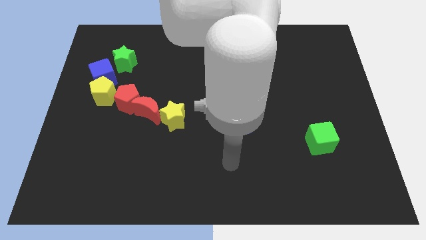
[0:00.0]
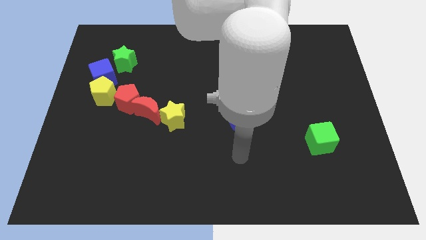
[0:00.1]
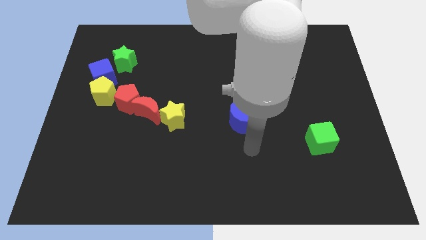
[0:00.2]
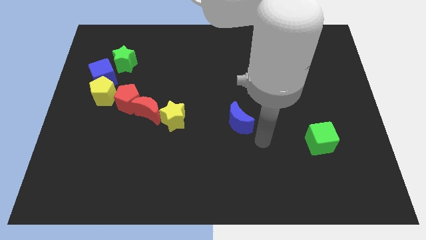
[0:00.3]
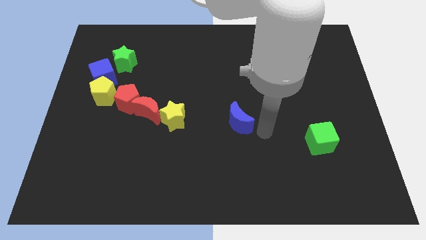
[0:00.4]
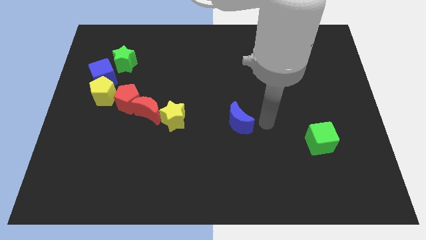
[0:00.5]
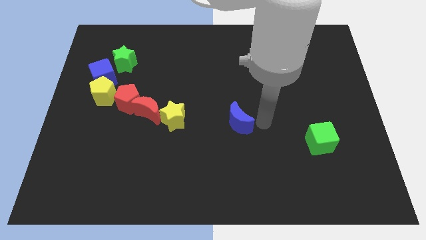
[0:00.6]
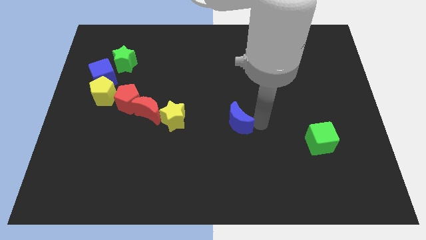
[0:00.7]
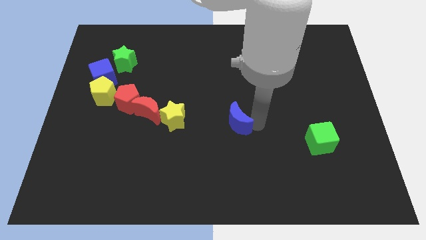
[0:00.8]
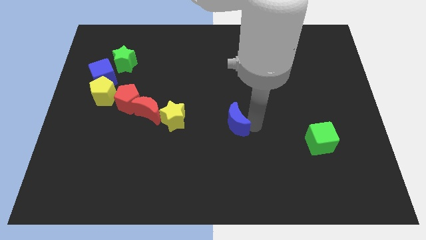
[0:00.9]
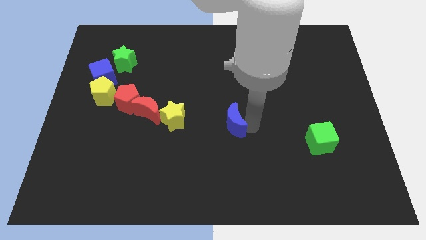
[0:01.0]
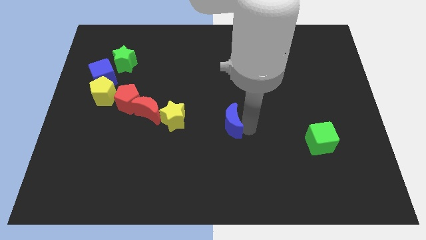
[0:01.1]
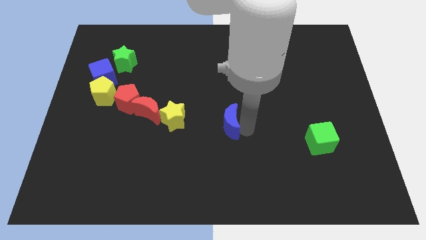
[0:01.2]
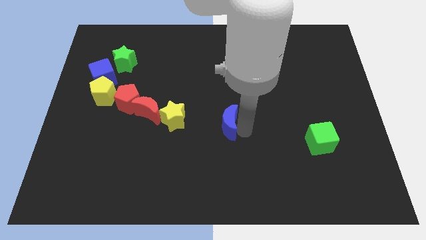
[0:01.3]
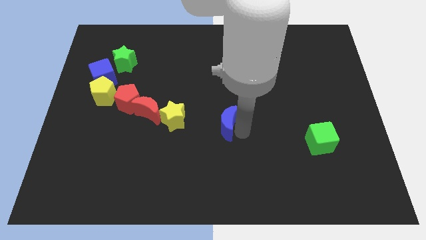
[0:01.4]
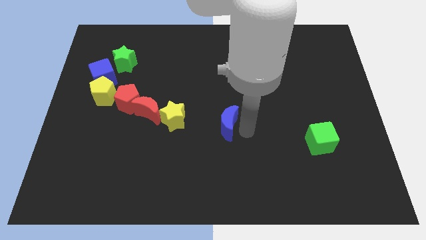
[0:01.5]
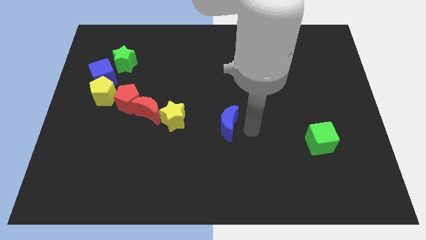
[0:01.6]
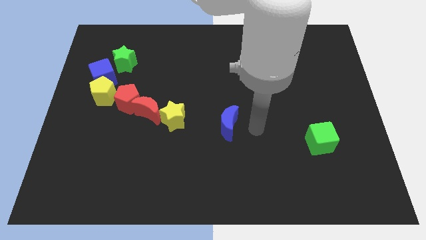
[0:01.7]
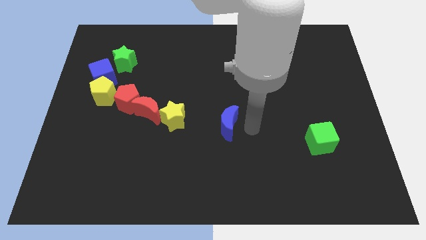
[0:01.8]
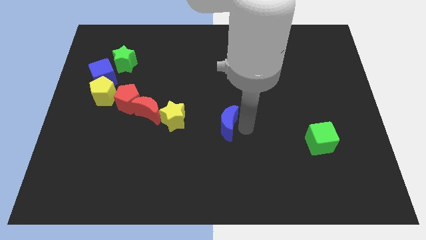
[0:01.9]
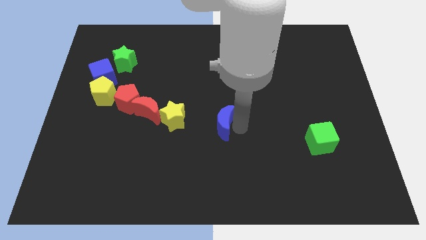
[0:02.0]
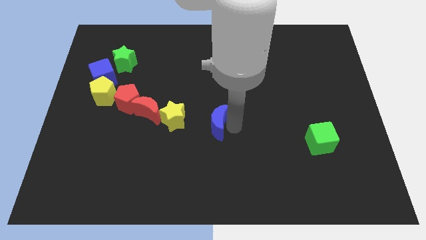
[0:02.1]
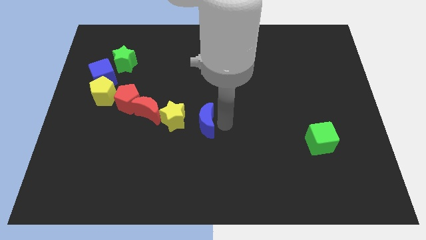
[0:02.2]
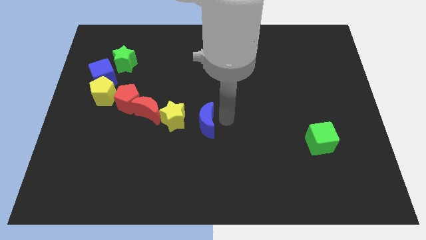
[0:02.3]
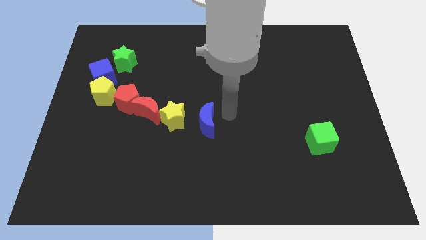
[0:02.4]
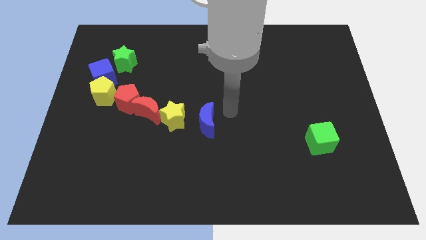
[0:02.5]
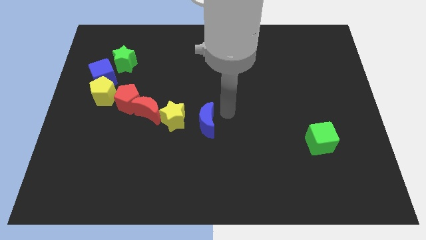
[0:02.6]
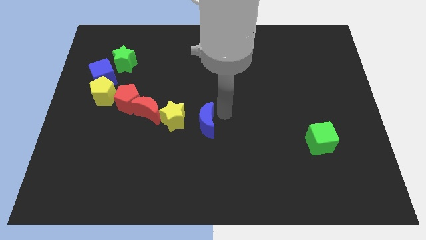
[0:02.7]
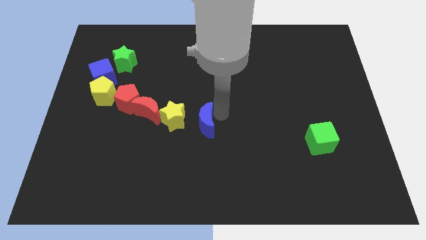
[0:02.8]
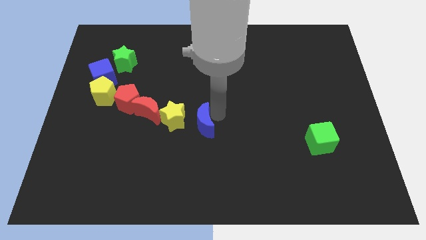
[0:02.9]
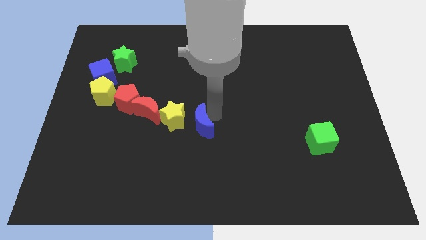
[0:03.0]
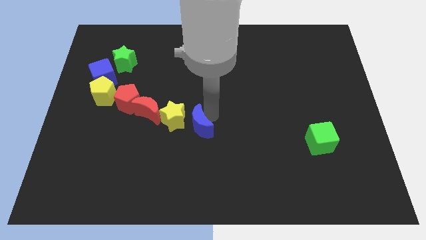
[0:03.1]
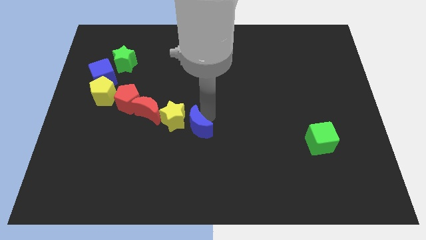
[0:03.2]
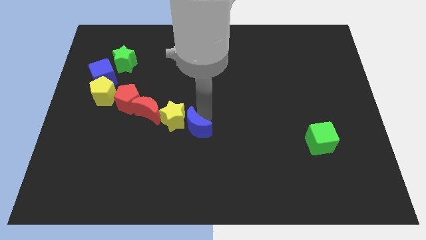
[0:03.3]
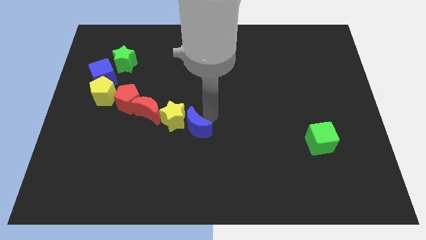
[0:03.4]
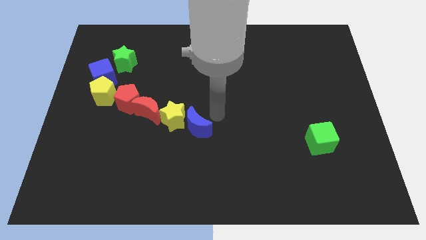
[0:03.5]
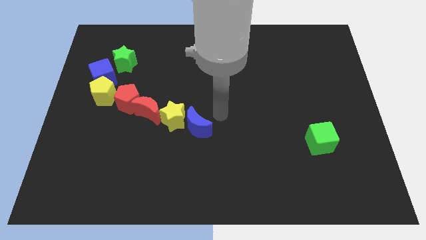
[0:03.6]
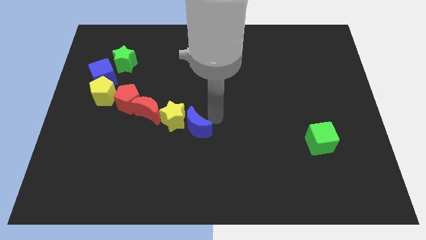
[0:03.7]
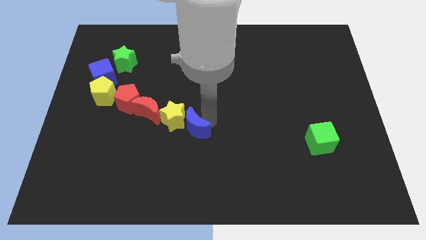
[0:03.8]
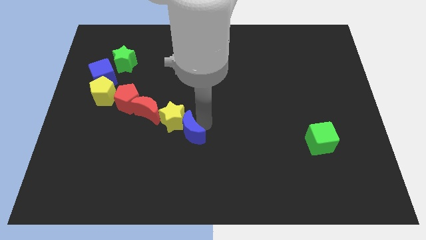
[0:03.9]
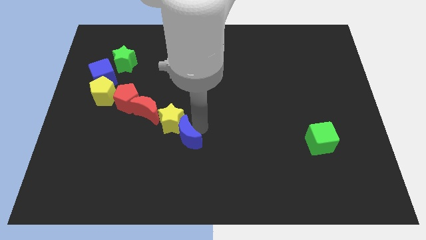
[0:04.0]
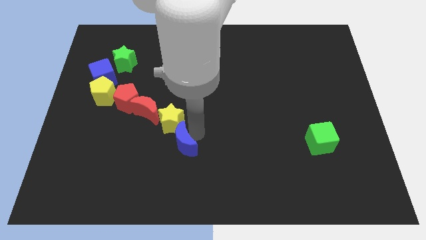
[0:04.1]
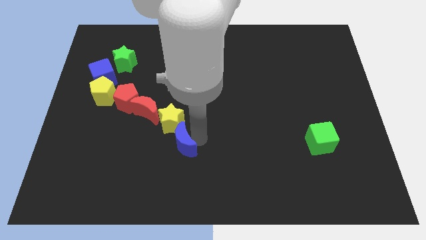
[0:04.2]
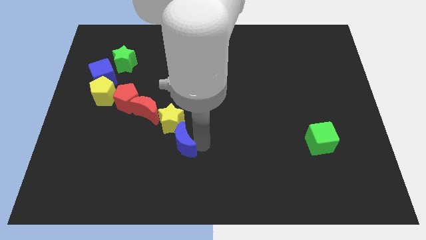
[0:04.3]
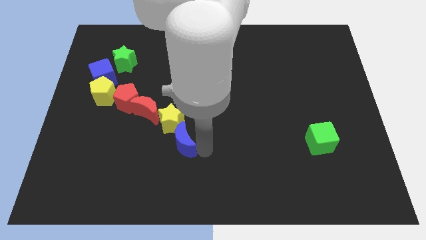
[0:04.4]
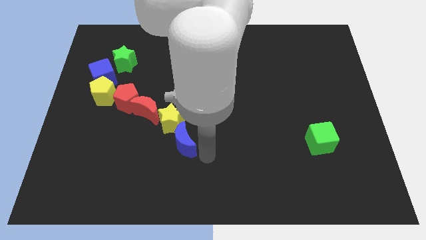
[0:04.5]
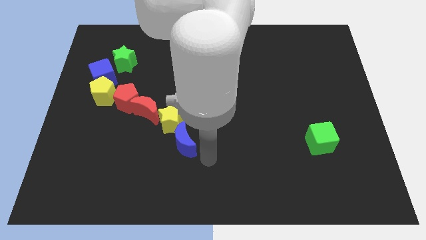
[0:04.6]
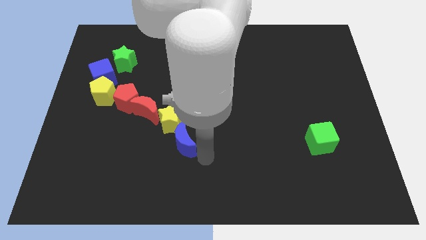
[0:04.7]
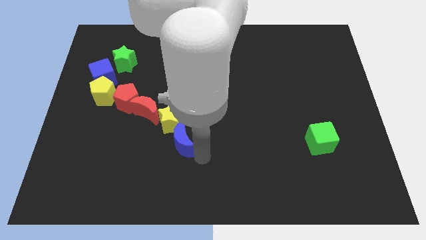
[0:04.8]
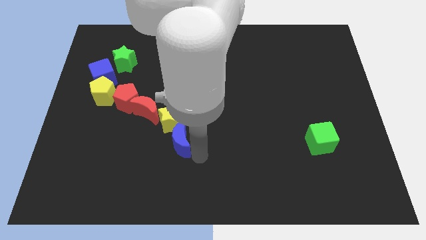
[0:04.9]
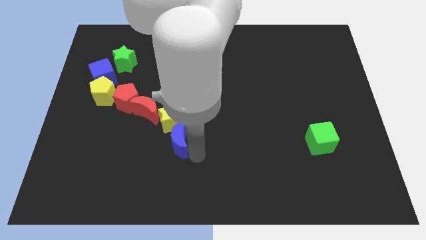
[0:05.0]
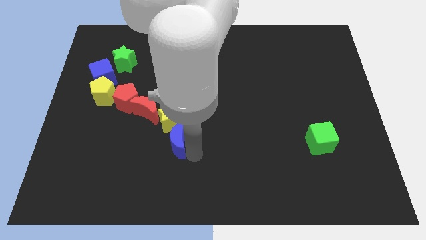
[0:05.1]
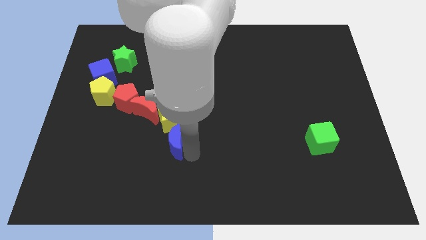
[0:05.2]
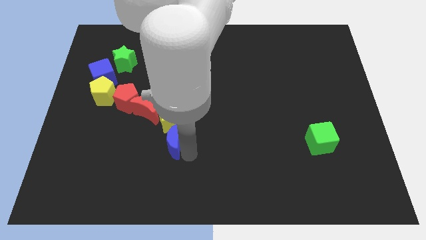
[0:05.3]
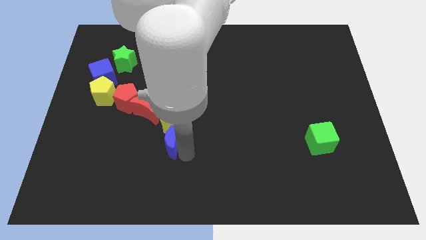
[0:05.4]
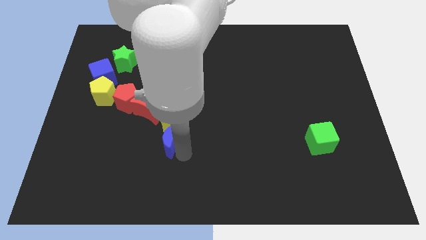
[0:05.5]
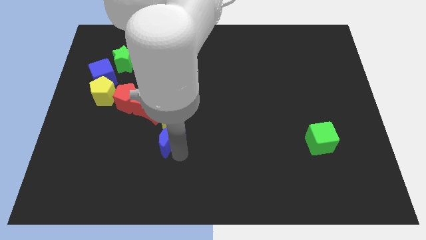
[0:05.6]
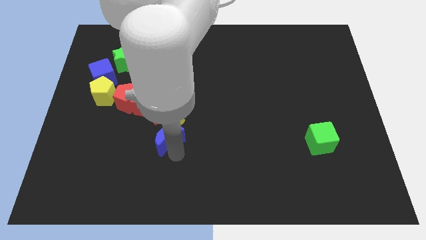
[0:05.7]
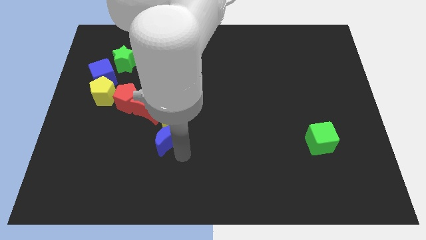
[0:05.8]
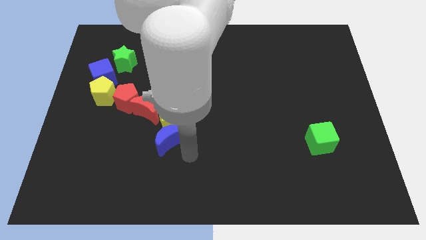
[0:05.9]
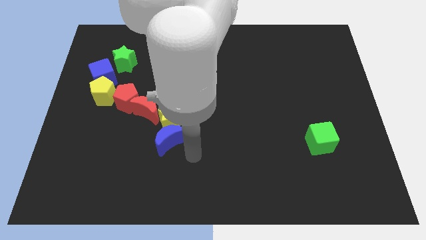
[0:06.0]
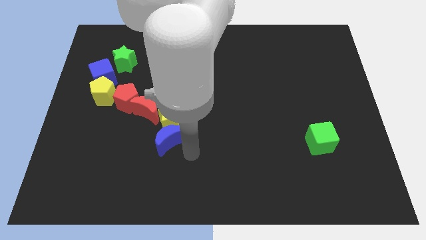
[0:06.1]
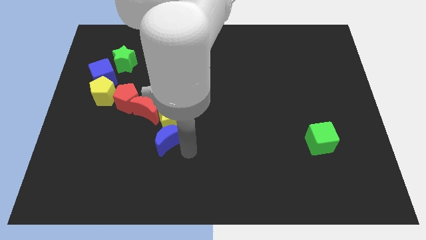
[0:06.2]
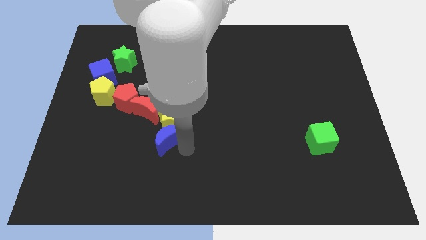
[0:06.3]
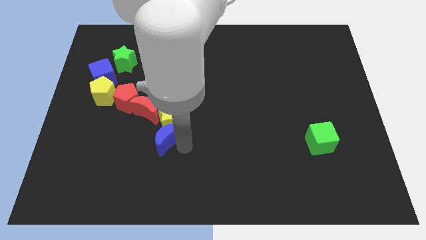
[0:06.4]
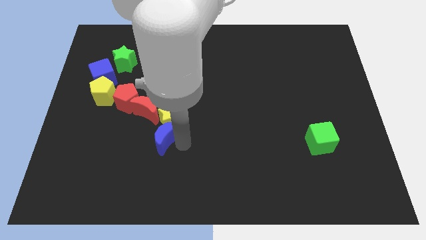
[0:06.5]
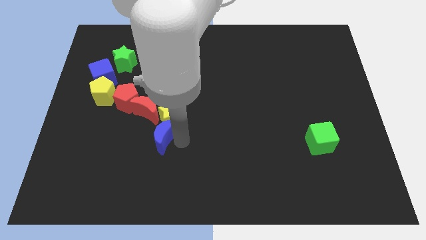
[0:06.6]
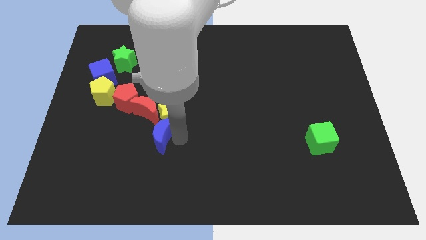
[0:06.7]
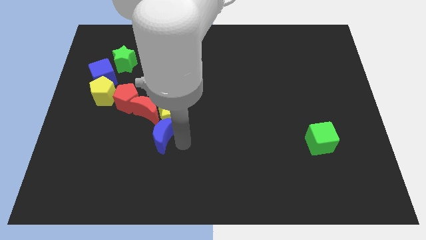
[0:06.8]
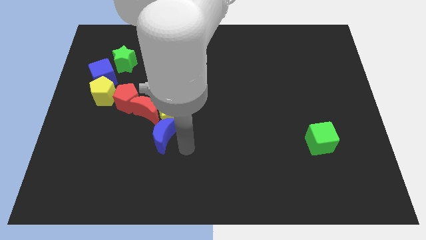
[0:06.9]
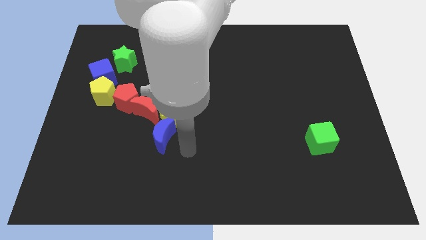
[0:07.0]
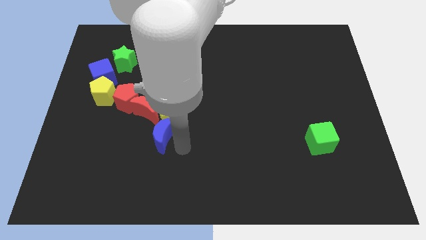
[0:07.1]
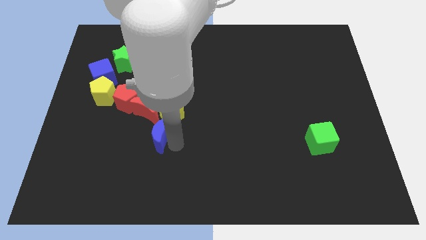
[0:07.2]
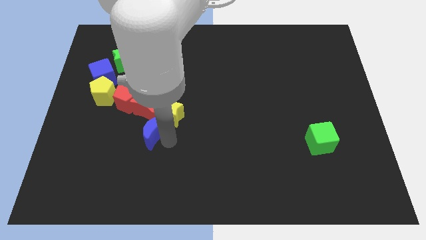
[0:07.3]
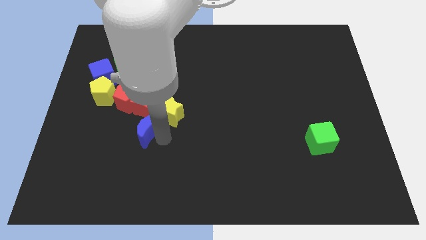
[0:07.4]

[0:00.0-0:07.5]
slide the blue moon to the left of the yellow star
